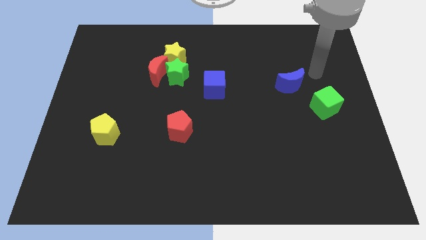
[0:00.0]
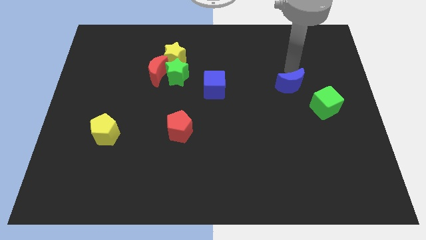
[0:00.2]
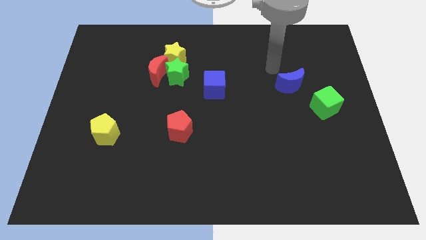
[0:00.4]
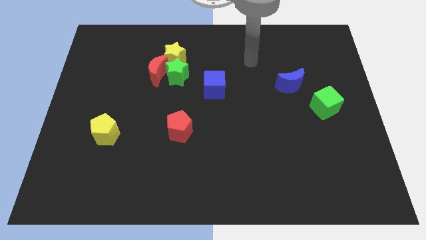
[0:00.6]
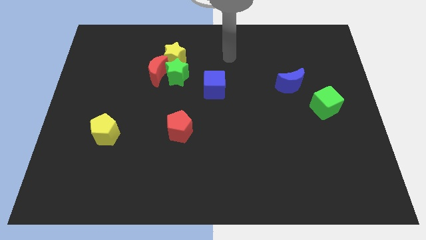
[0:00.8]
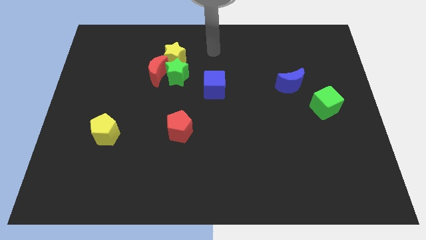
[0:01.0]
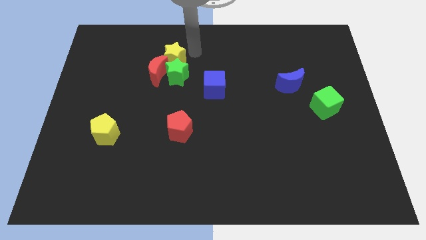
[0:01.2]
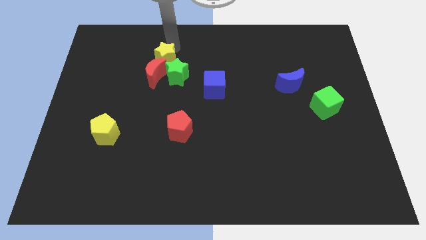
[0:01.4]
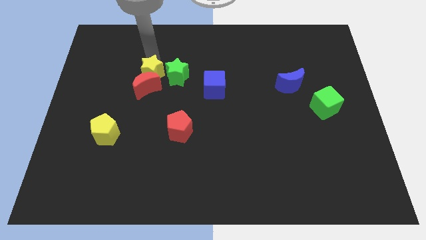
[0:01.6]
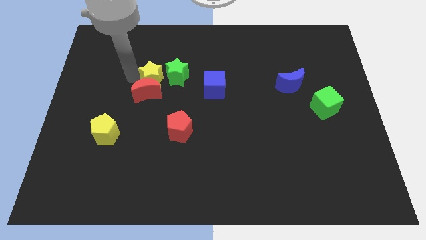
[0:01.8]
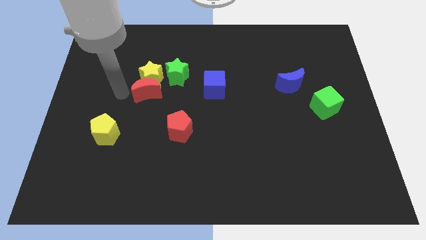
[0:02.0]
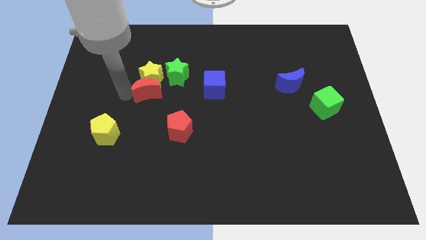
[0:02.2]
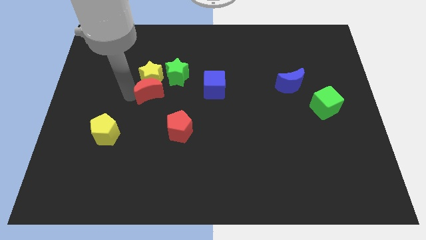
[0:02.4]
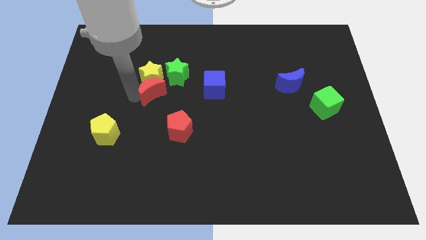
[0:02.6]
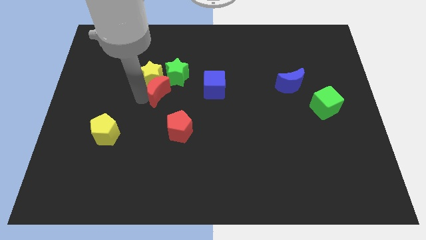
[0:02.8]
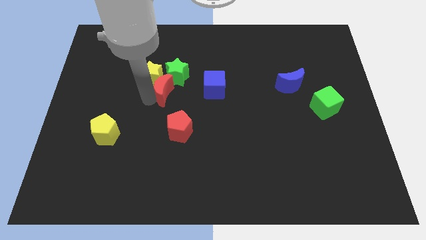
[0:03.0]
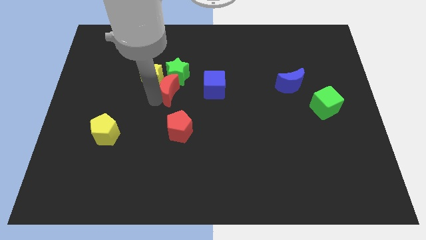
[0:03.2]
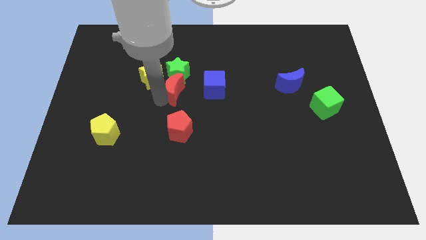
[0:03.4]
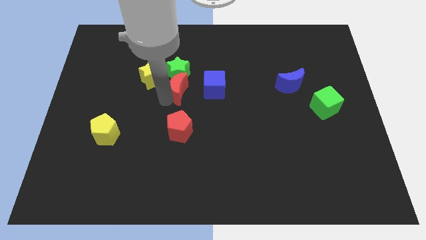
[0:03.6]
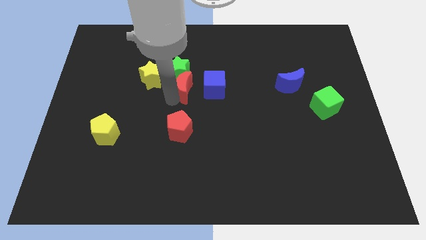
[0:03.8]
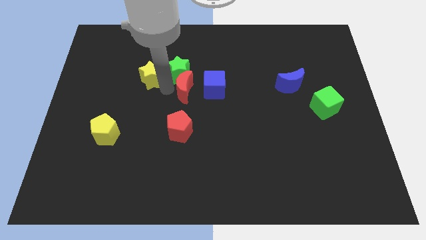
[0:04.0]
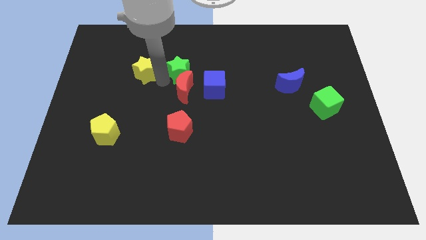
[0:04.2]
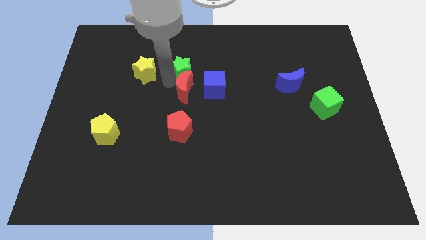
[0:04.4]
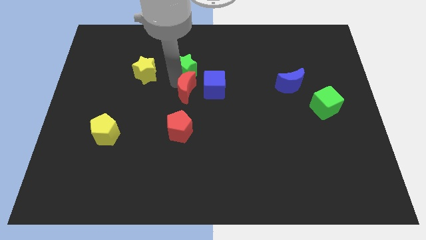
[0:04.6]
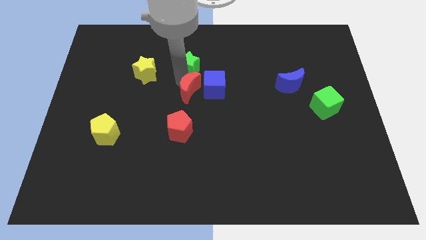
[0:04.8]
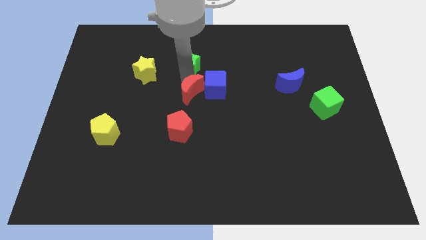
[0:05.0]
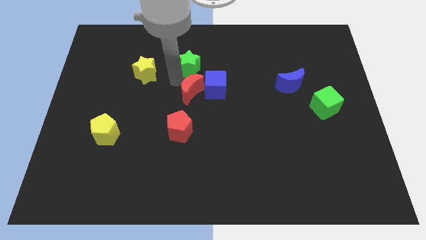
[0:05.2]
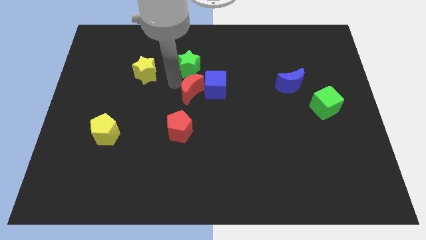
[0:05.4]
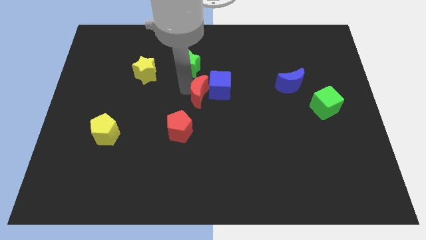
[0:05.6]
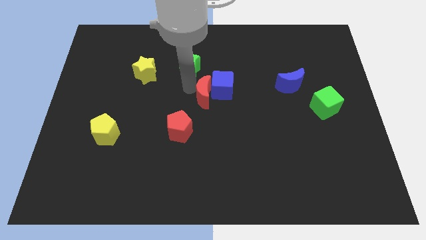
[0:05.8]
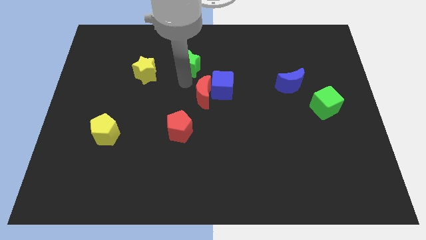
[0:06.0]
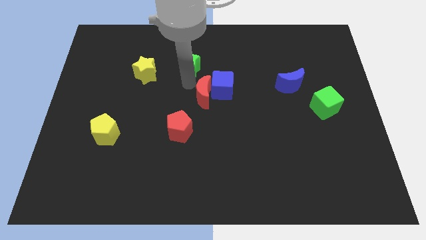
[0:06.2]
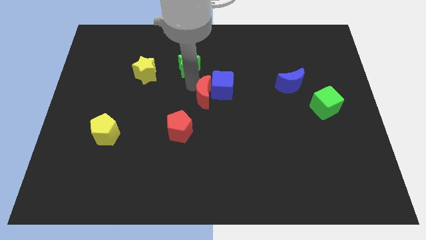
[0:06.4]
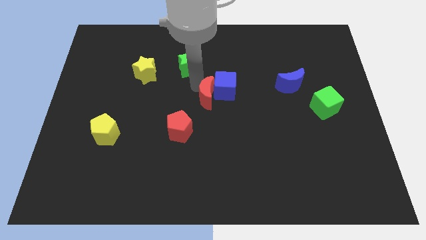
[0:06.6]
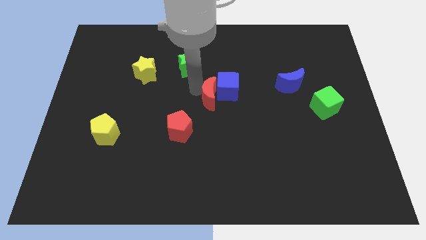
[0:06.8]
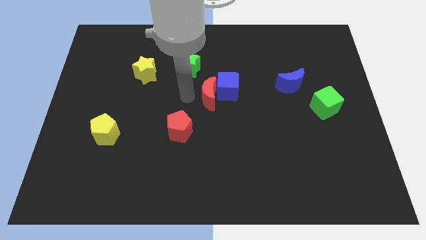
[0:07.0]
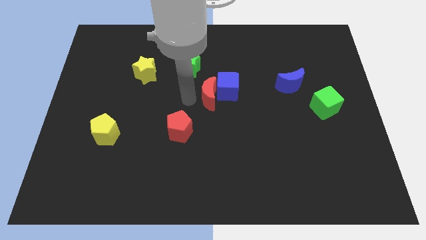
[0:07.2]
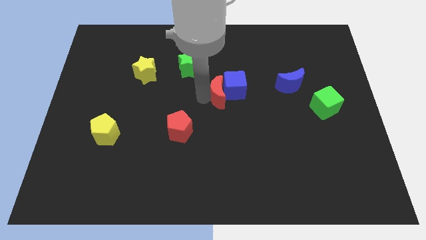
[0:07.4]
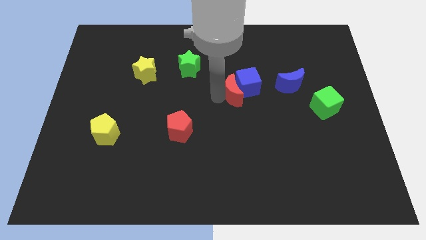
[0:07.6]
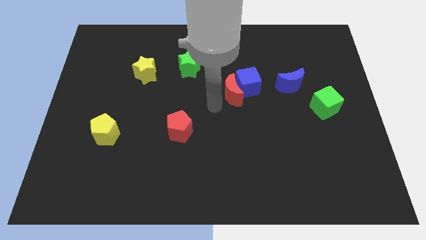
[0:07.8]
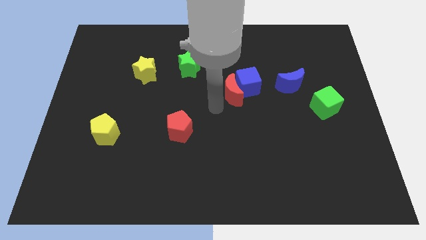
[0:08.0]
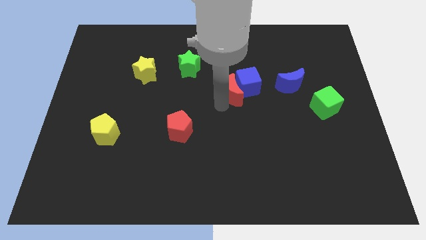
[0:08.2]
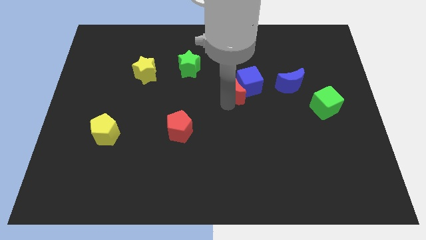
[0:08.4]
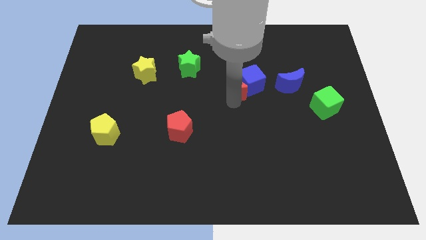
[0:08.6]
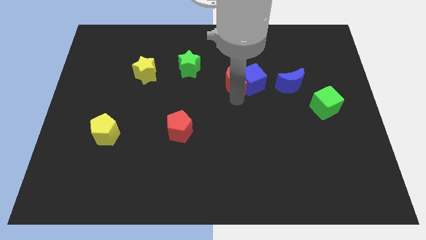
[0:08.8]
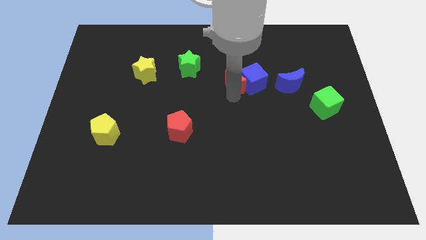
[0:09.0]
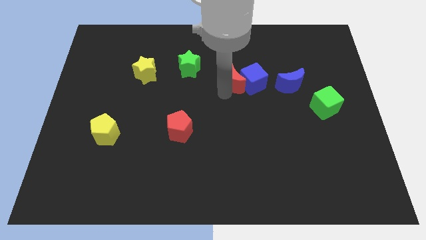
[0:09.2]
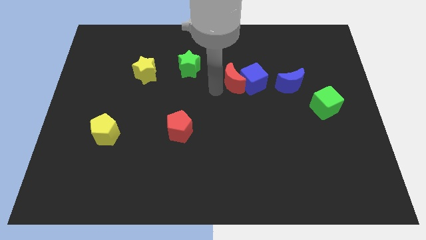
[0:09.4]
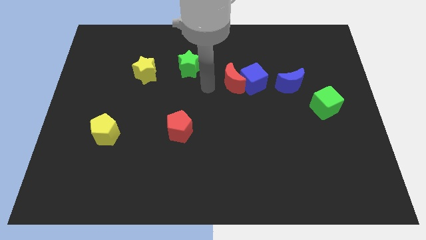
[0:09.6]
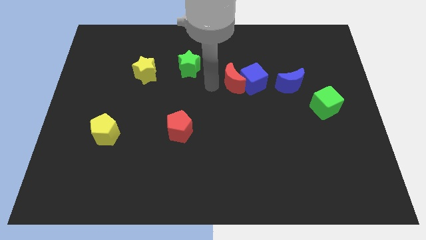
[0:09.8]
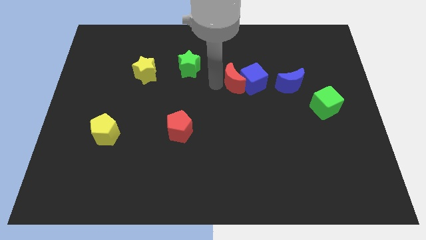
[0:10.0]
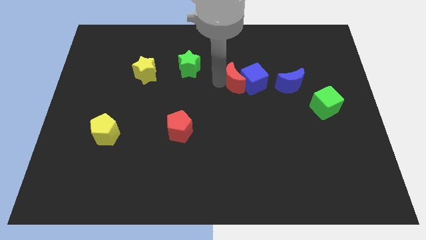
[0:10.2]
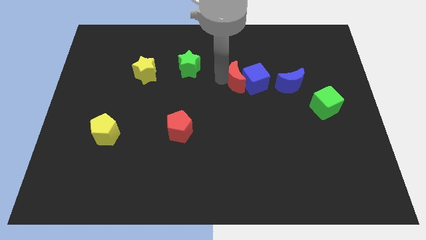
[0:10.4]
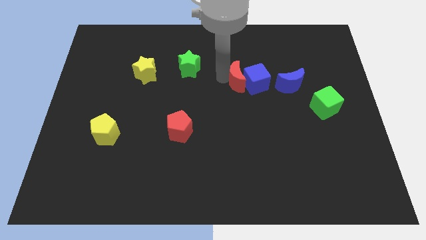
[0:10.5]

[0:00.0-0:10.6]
push the red moon to the right

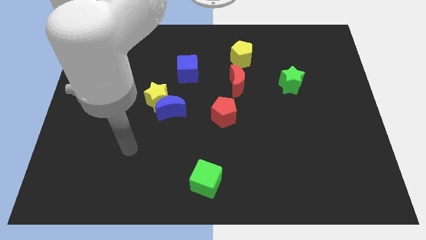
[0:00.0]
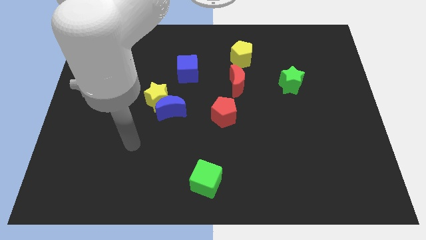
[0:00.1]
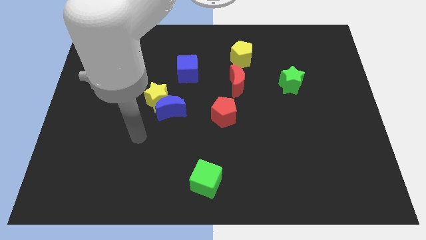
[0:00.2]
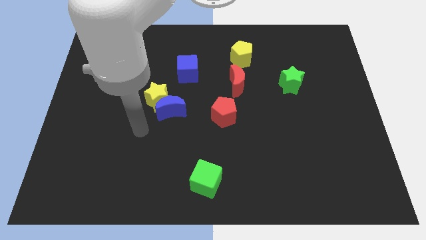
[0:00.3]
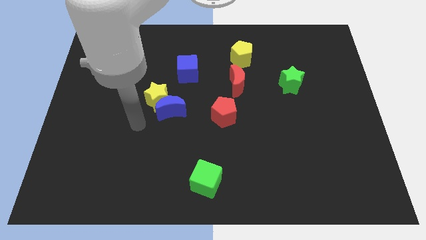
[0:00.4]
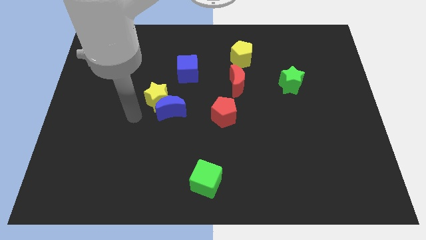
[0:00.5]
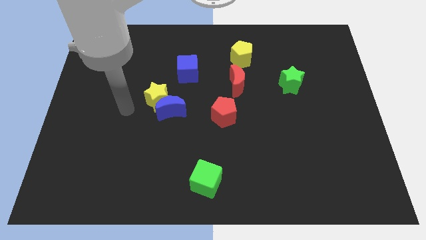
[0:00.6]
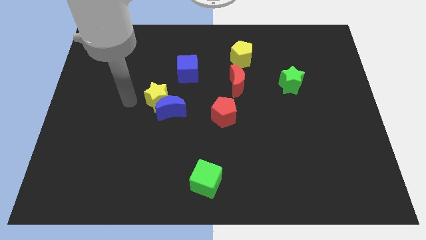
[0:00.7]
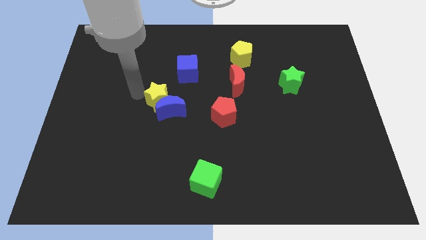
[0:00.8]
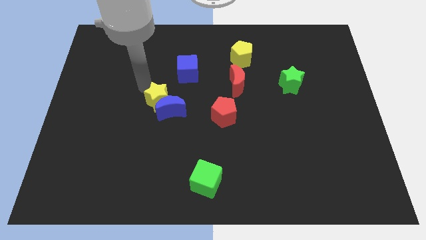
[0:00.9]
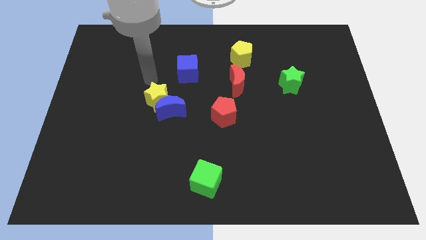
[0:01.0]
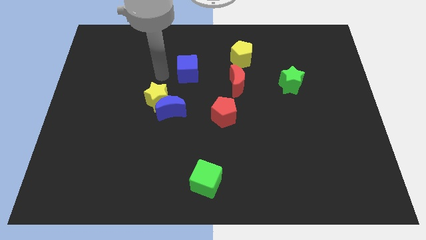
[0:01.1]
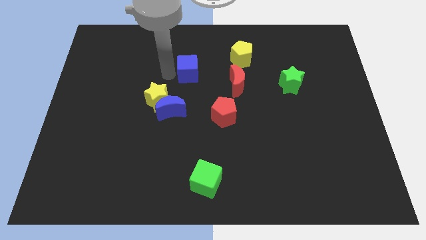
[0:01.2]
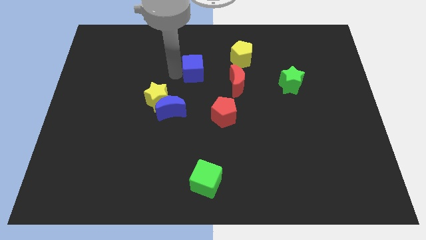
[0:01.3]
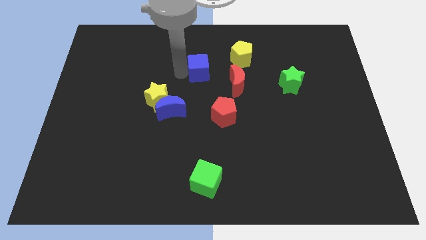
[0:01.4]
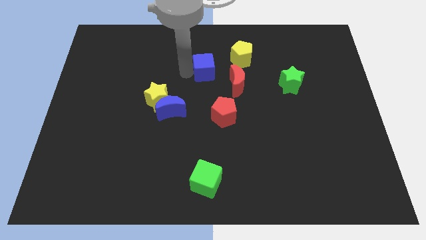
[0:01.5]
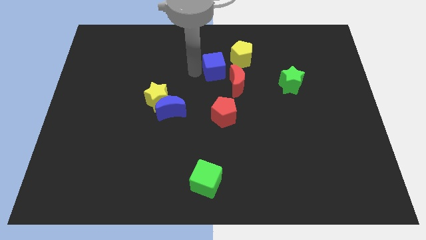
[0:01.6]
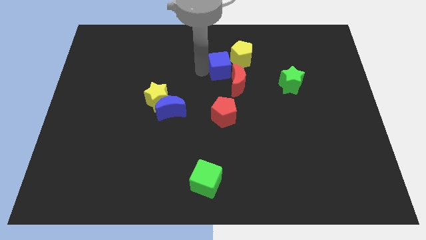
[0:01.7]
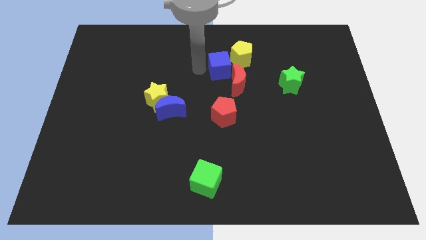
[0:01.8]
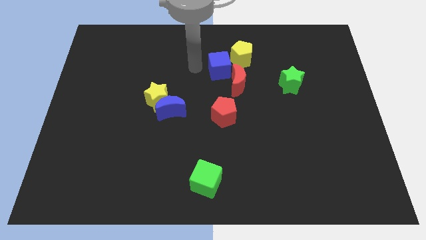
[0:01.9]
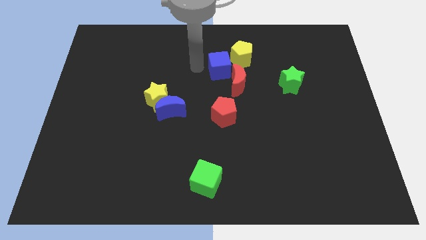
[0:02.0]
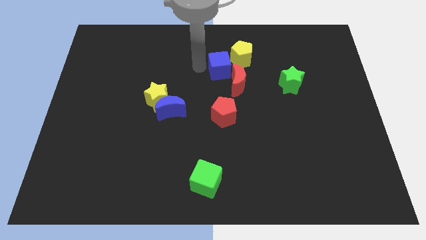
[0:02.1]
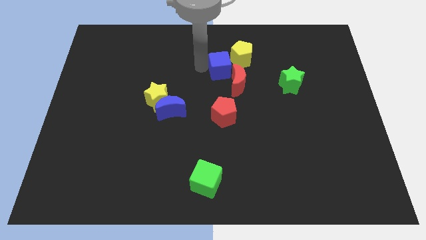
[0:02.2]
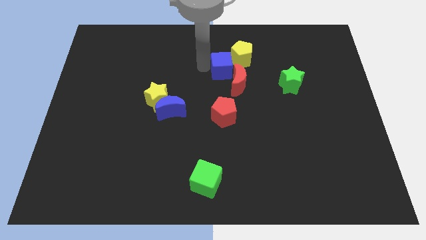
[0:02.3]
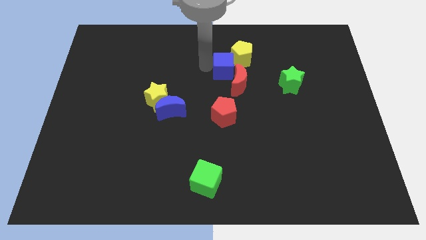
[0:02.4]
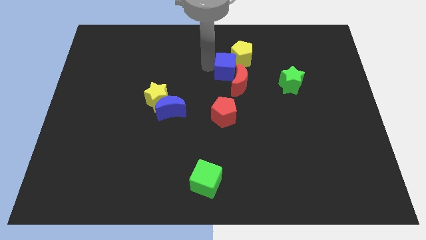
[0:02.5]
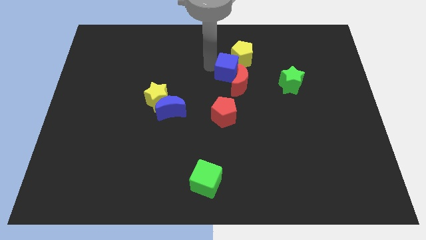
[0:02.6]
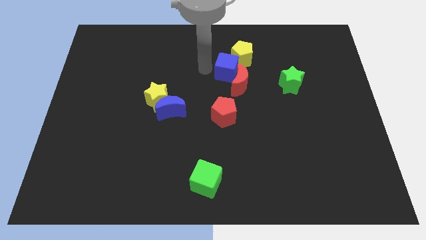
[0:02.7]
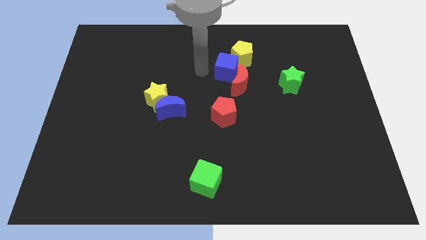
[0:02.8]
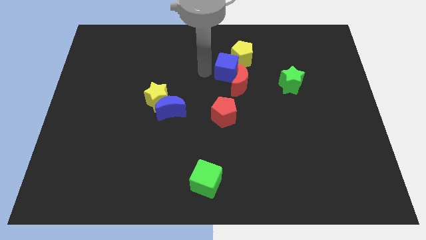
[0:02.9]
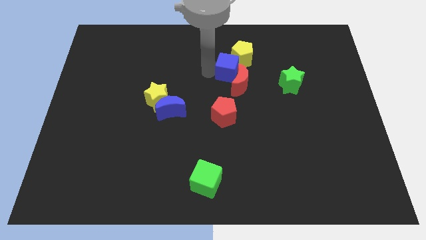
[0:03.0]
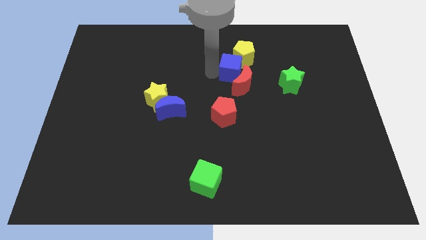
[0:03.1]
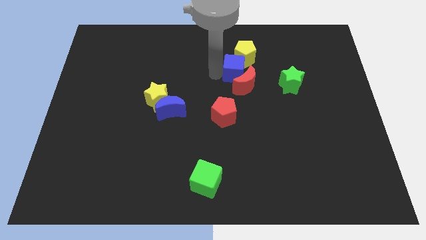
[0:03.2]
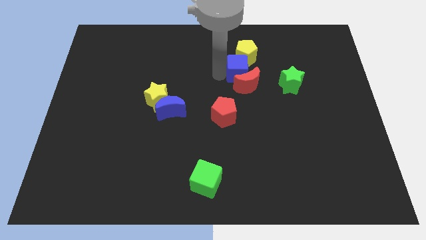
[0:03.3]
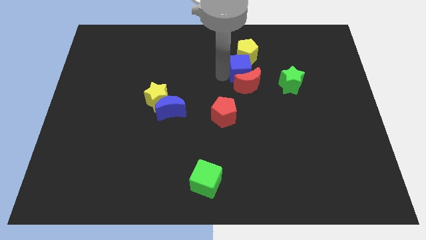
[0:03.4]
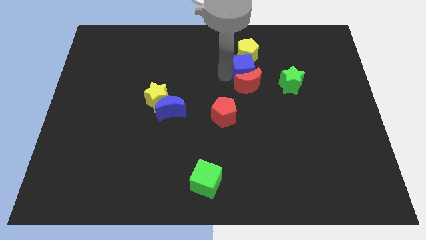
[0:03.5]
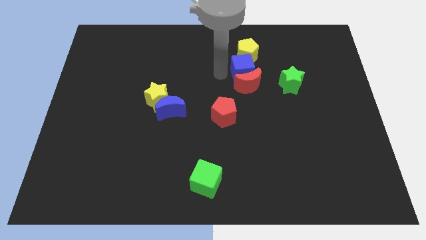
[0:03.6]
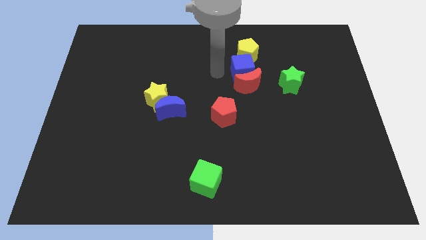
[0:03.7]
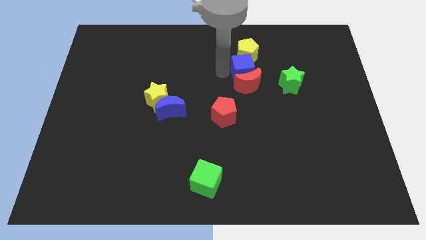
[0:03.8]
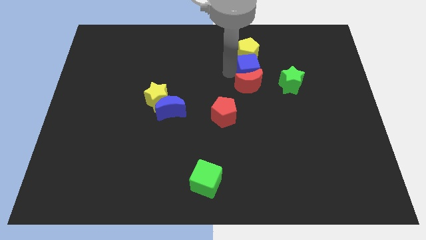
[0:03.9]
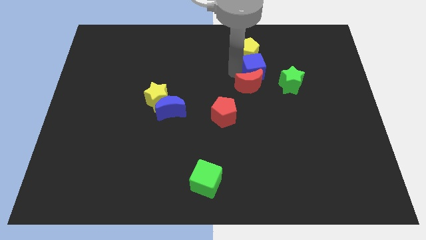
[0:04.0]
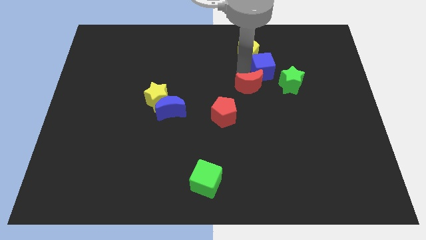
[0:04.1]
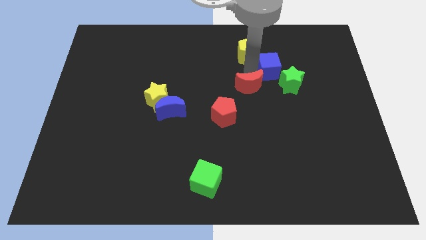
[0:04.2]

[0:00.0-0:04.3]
move the blue cube right
